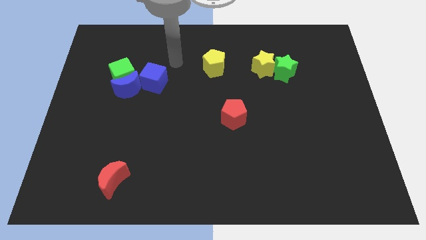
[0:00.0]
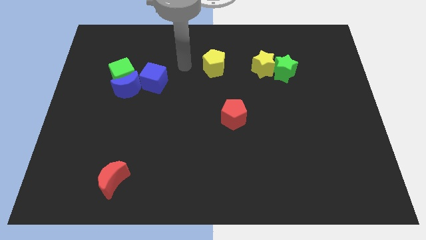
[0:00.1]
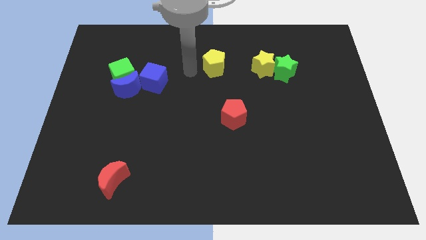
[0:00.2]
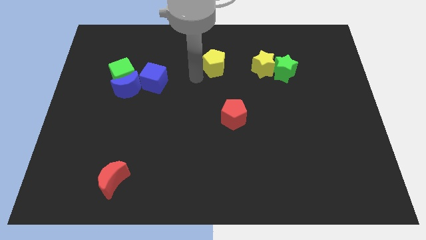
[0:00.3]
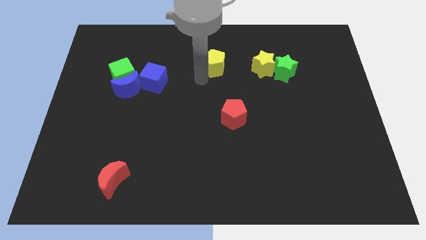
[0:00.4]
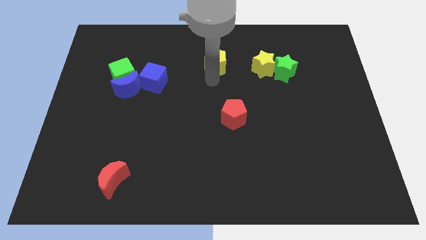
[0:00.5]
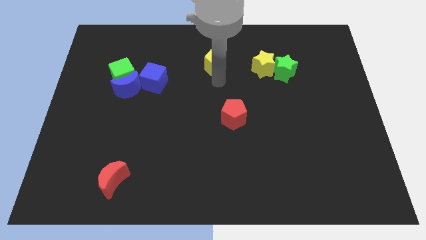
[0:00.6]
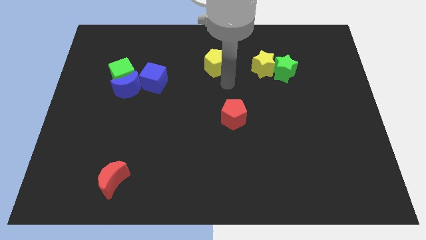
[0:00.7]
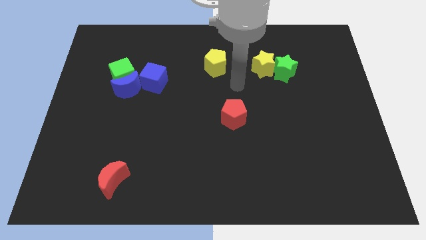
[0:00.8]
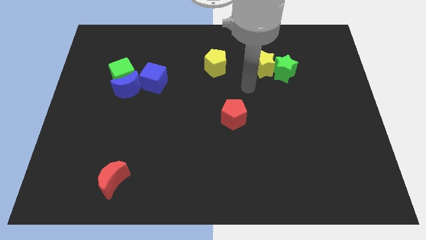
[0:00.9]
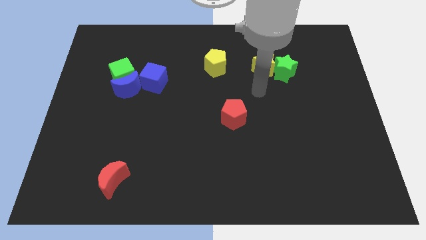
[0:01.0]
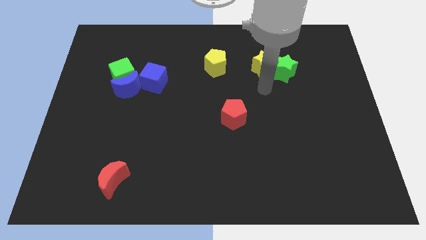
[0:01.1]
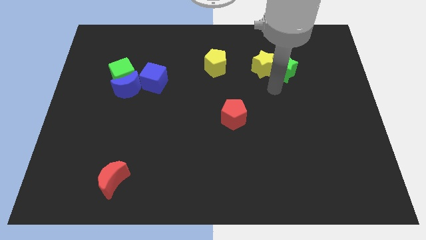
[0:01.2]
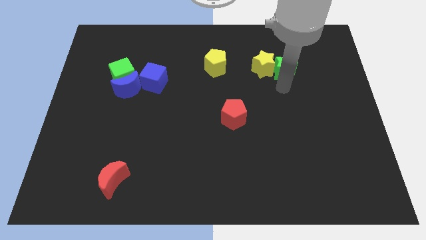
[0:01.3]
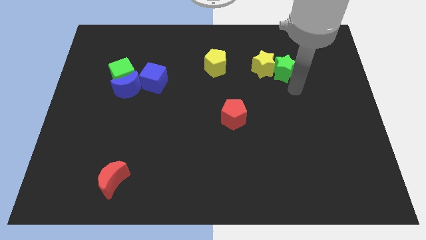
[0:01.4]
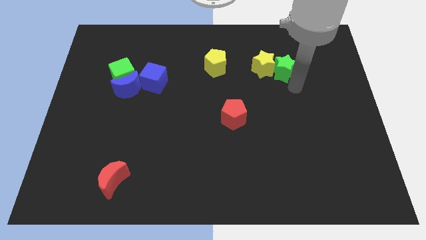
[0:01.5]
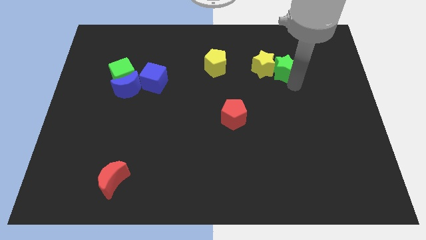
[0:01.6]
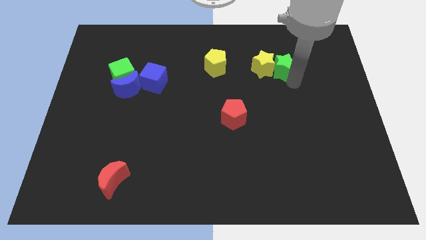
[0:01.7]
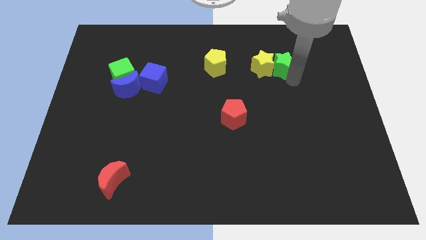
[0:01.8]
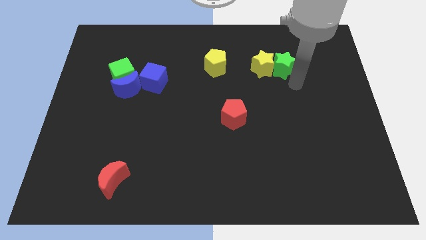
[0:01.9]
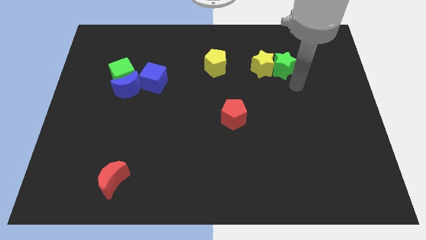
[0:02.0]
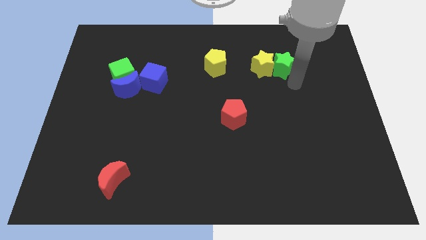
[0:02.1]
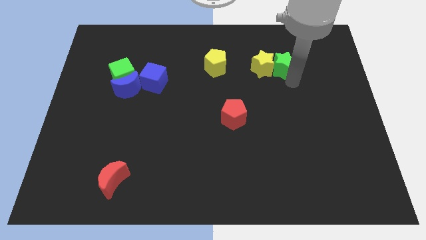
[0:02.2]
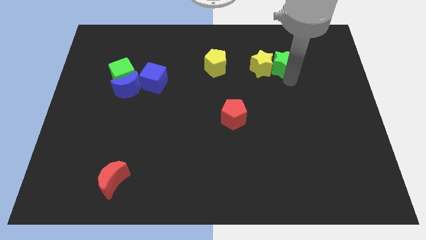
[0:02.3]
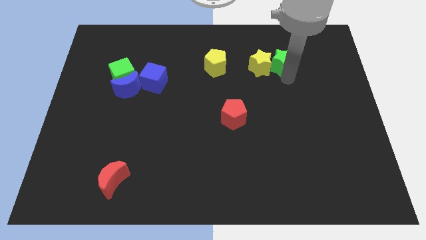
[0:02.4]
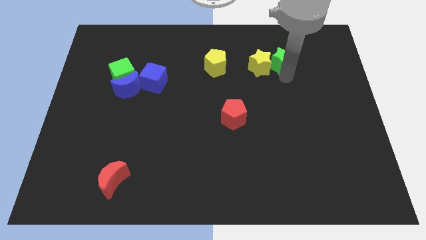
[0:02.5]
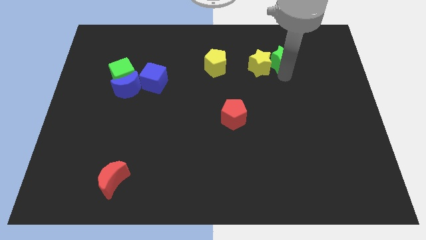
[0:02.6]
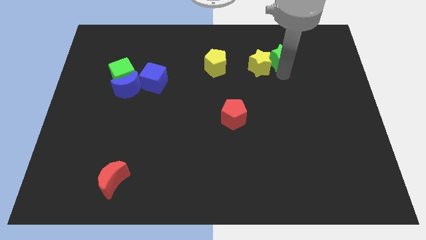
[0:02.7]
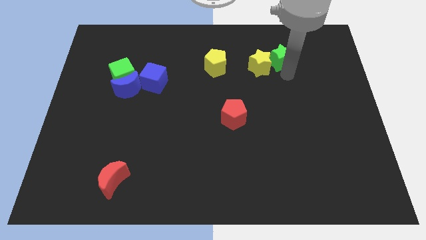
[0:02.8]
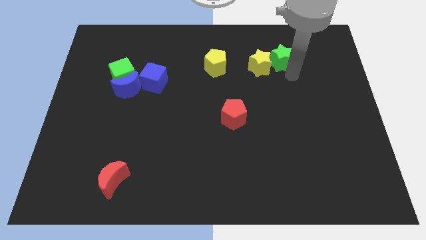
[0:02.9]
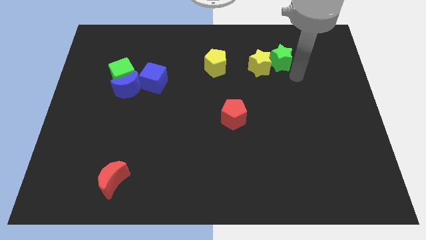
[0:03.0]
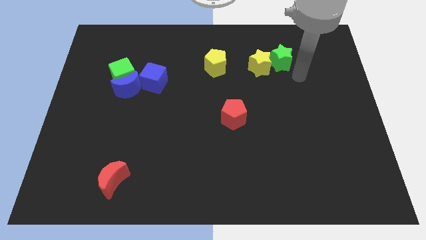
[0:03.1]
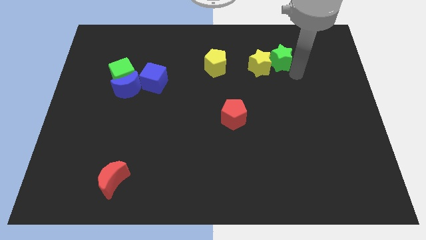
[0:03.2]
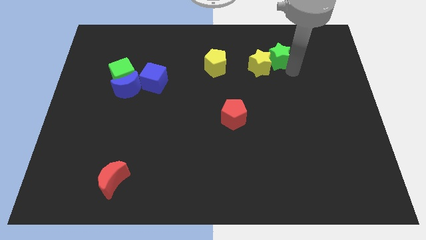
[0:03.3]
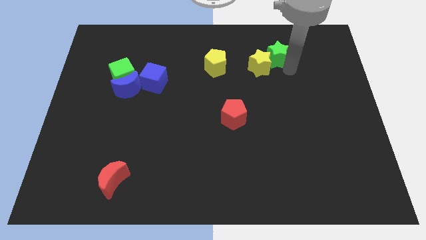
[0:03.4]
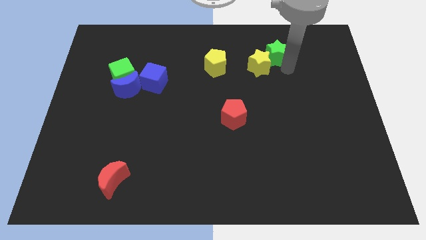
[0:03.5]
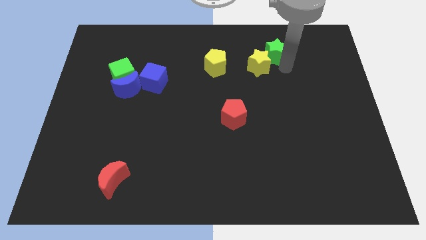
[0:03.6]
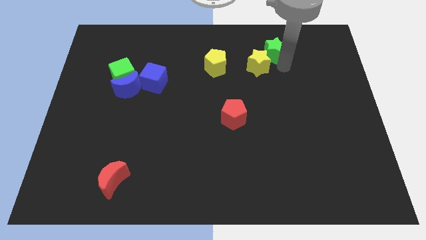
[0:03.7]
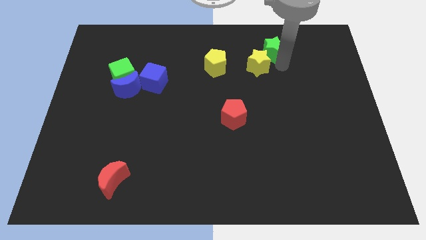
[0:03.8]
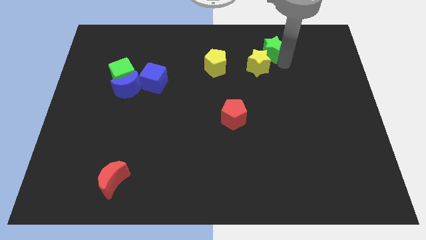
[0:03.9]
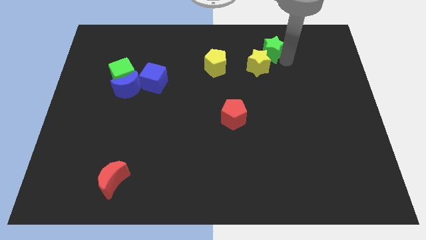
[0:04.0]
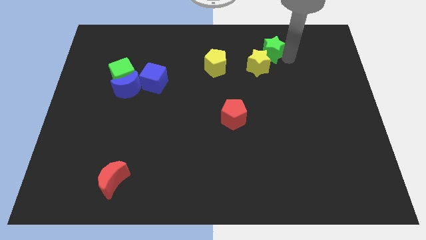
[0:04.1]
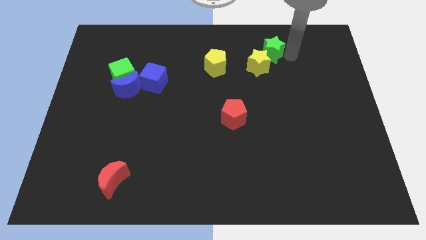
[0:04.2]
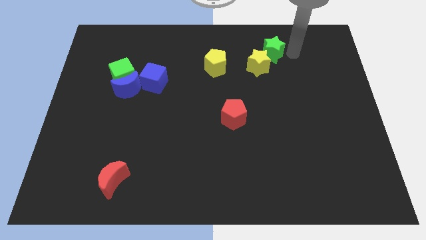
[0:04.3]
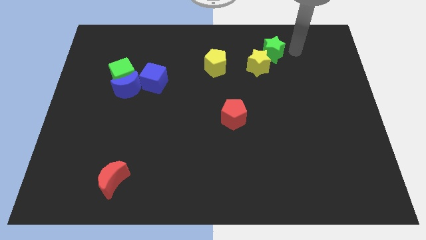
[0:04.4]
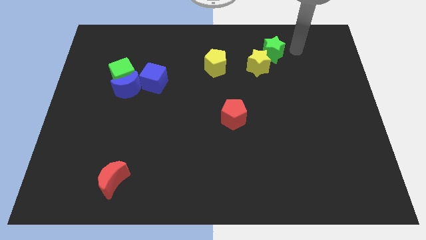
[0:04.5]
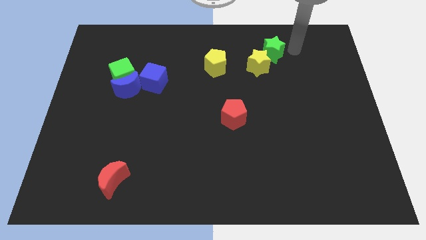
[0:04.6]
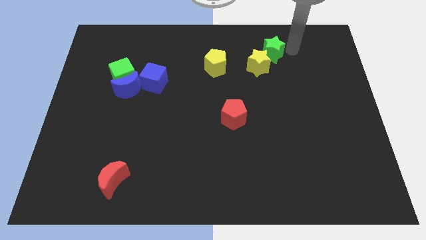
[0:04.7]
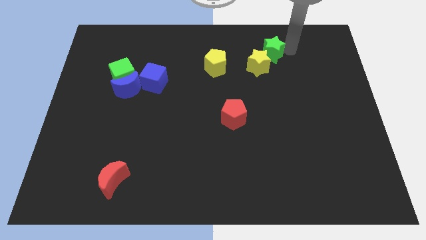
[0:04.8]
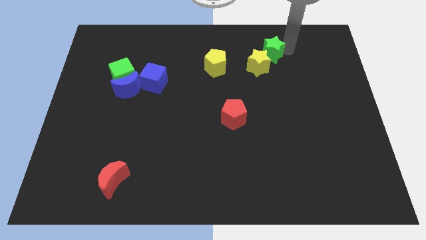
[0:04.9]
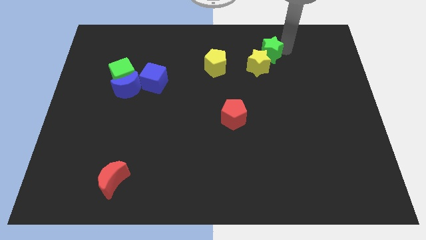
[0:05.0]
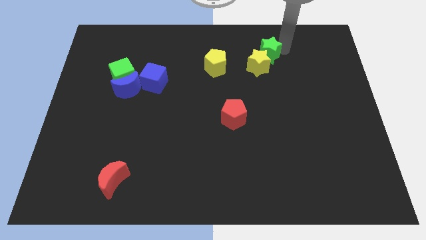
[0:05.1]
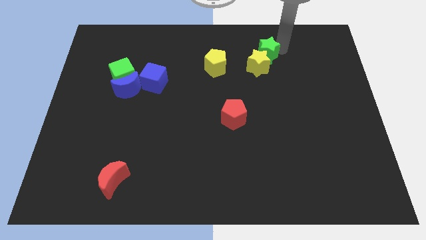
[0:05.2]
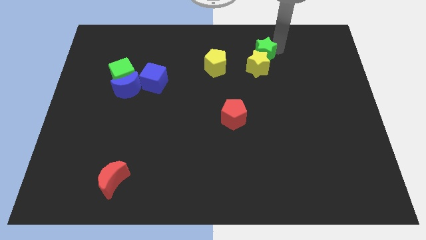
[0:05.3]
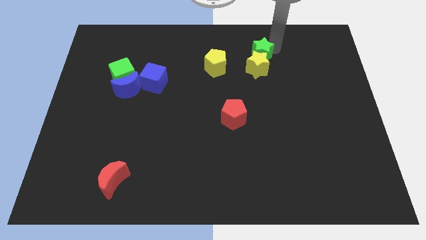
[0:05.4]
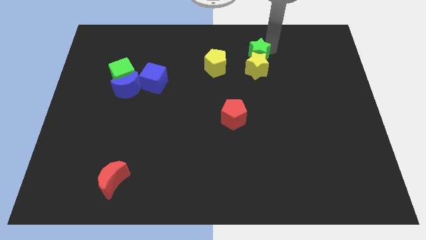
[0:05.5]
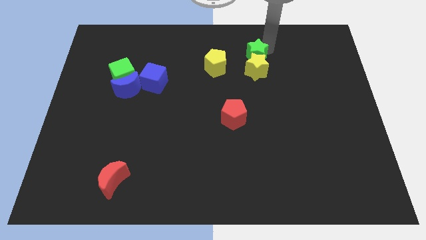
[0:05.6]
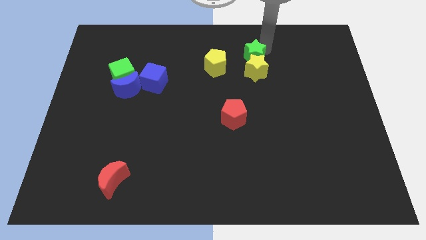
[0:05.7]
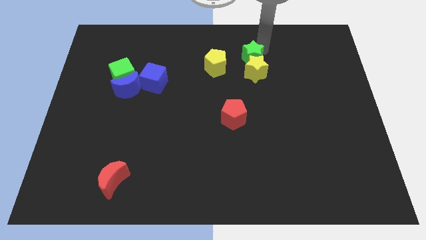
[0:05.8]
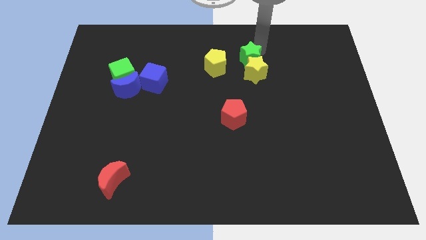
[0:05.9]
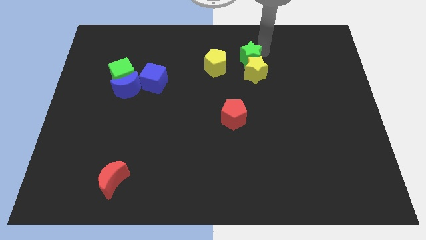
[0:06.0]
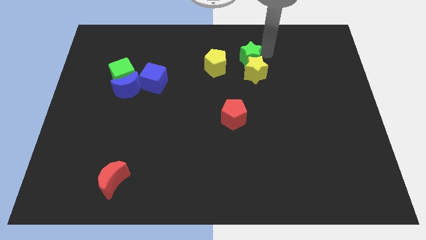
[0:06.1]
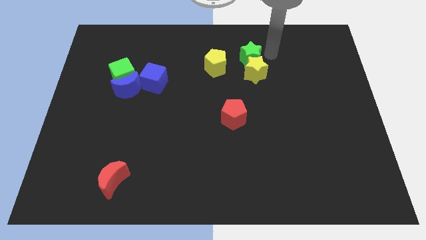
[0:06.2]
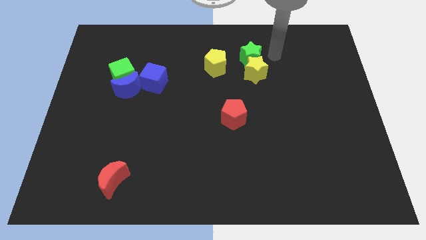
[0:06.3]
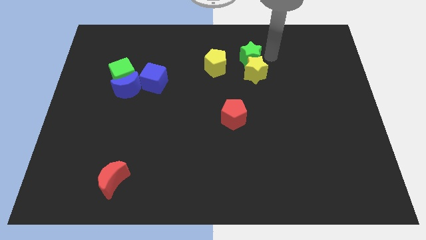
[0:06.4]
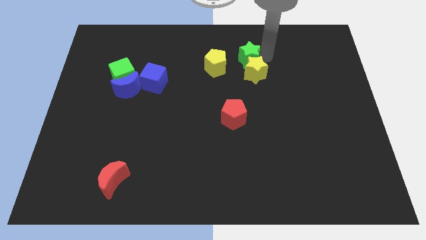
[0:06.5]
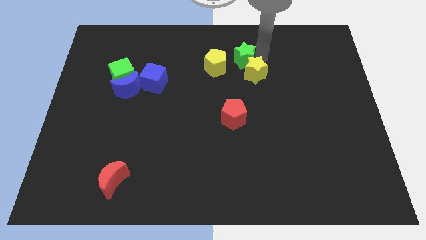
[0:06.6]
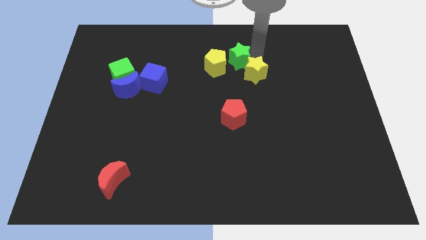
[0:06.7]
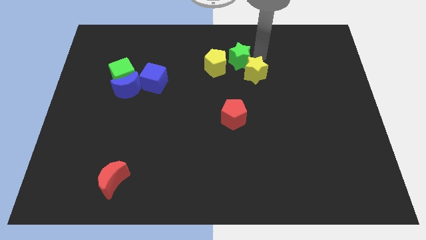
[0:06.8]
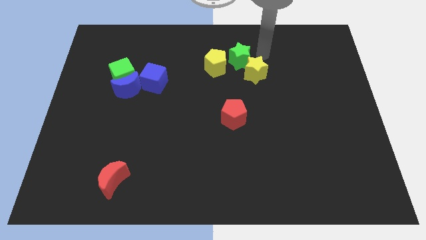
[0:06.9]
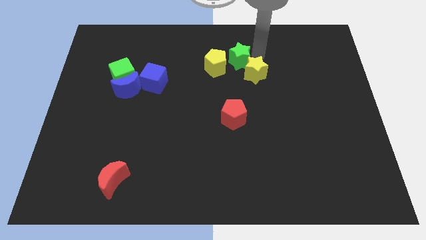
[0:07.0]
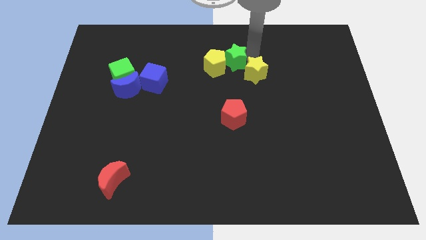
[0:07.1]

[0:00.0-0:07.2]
slide the green star next to the yellow pentagon

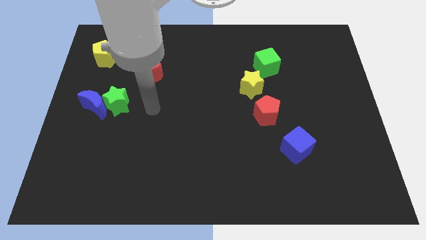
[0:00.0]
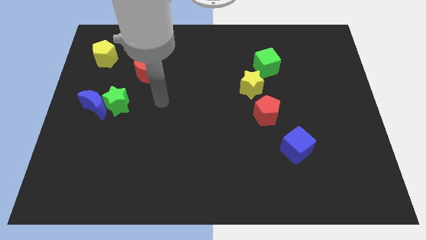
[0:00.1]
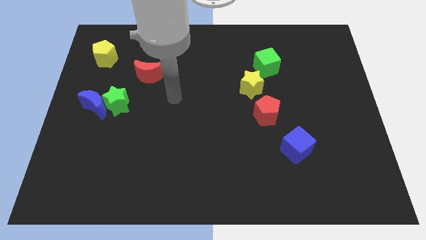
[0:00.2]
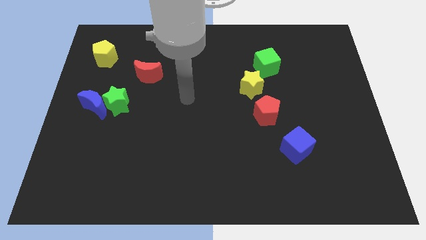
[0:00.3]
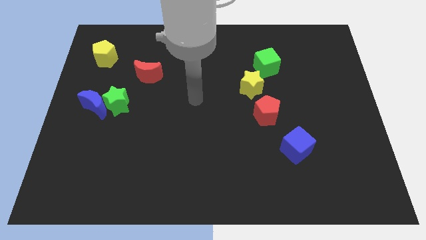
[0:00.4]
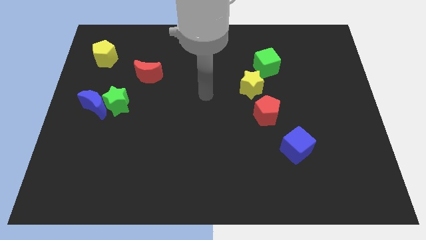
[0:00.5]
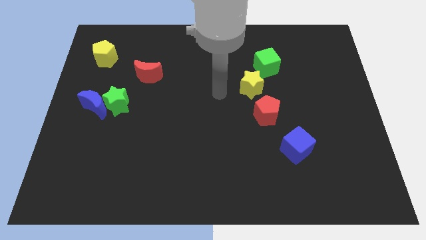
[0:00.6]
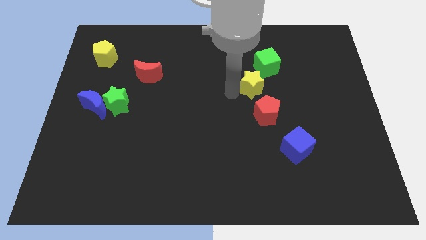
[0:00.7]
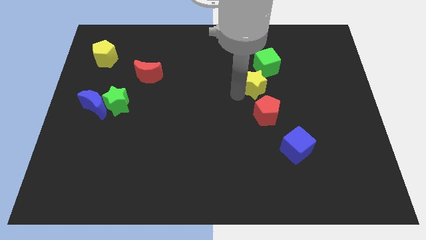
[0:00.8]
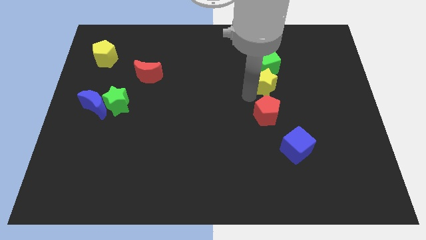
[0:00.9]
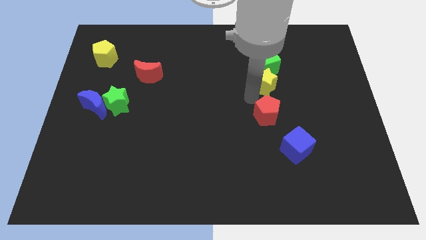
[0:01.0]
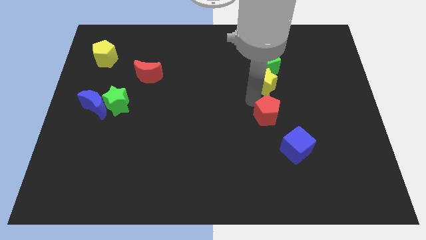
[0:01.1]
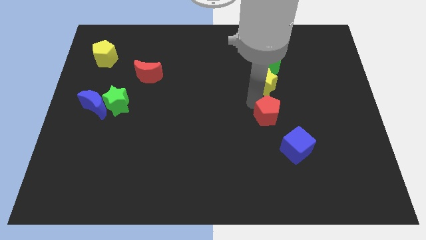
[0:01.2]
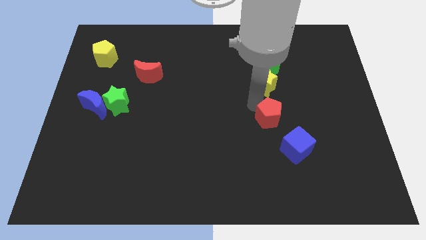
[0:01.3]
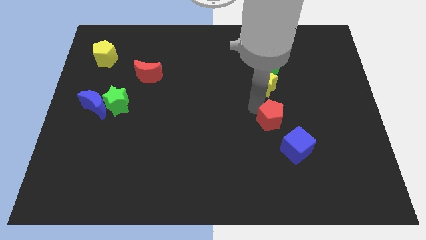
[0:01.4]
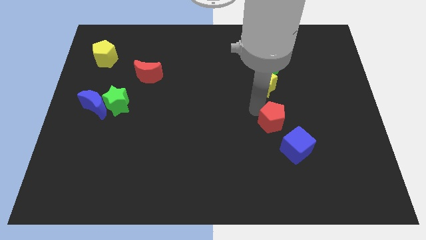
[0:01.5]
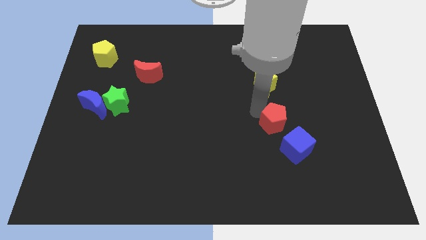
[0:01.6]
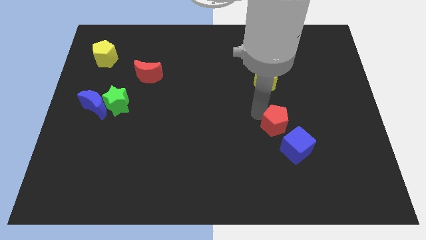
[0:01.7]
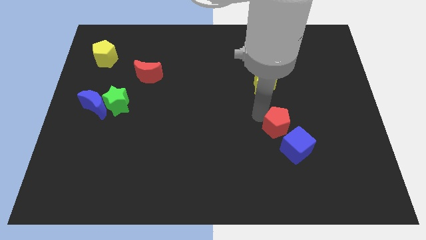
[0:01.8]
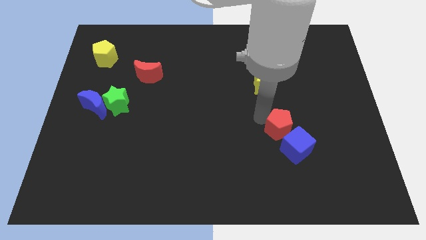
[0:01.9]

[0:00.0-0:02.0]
push the red pentagon towards the blue cube
